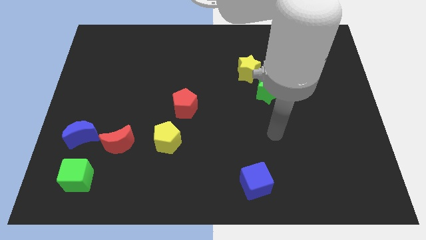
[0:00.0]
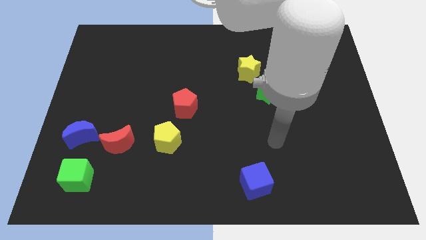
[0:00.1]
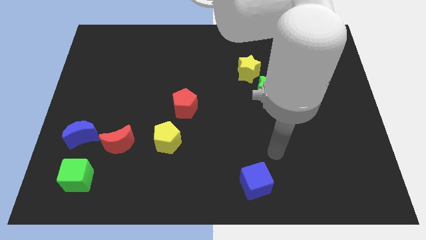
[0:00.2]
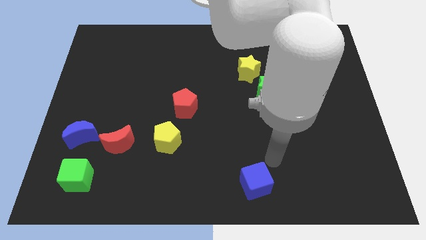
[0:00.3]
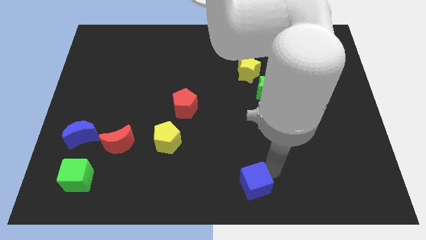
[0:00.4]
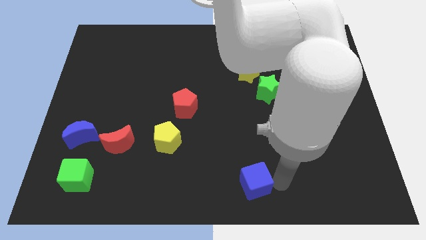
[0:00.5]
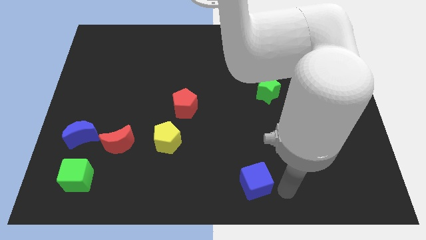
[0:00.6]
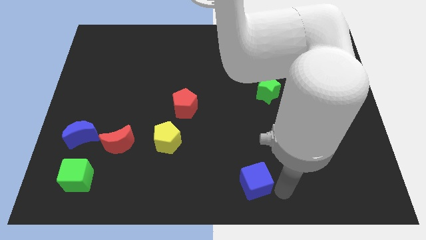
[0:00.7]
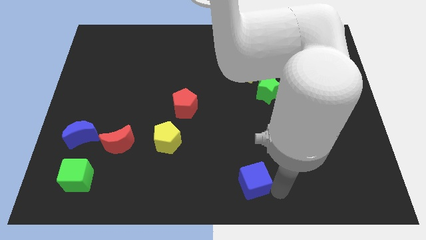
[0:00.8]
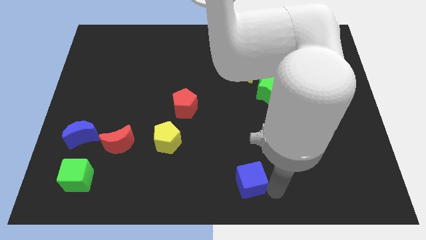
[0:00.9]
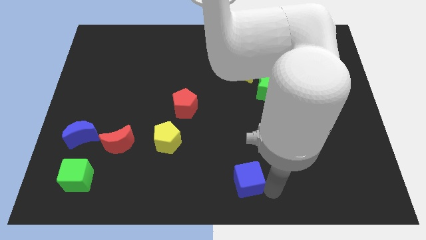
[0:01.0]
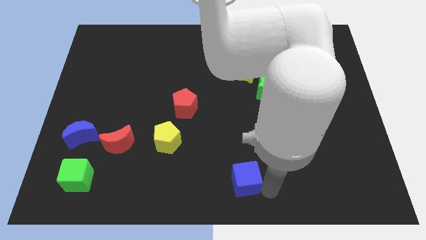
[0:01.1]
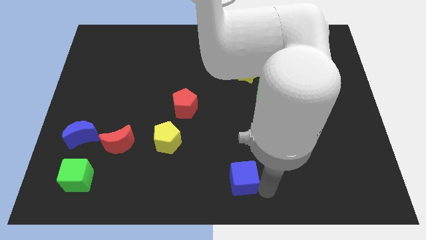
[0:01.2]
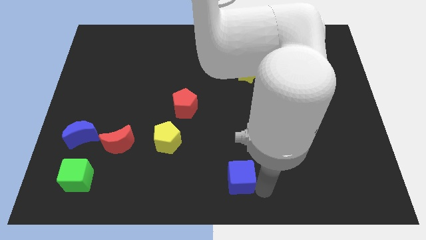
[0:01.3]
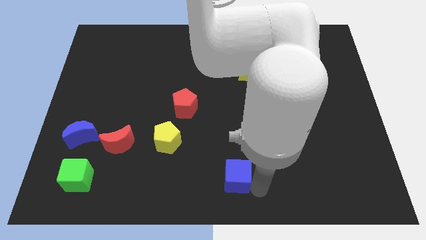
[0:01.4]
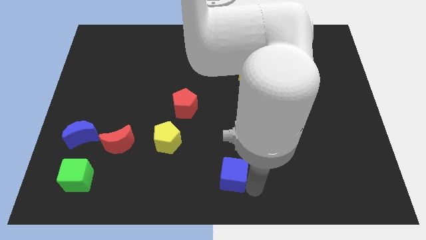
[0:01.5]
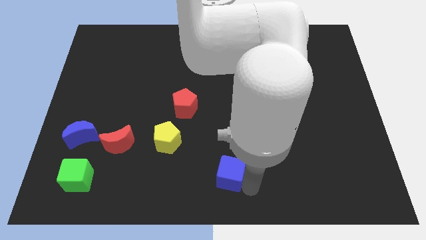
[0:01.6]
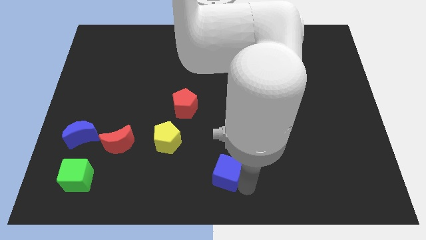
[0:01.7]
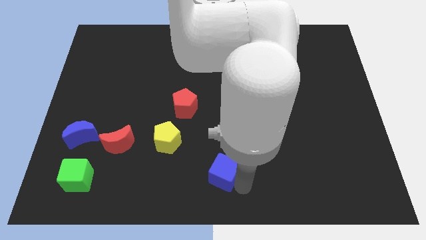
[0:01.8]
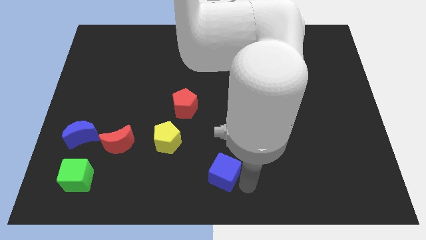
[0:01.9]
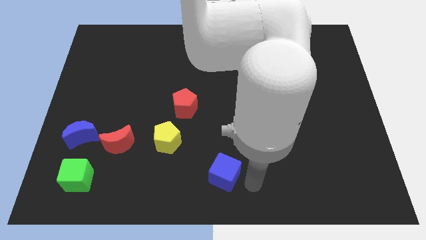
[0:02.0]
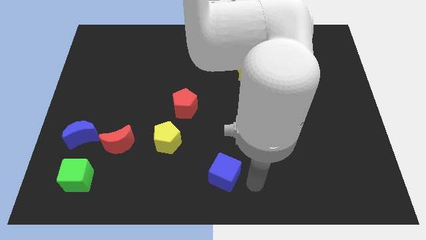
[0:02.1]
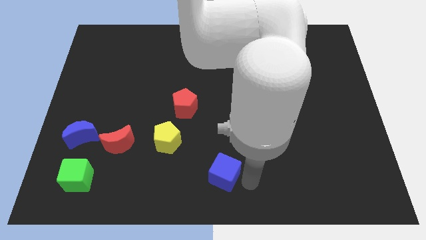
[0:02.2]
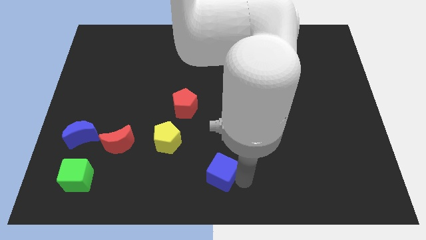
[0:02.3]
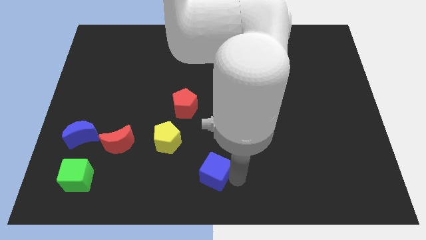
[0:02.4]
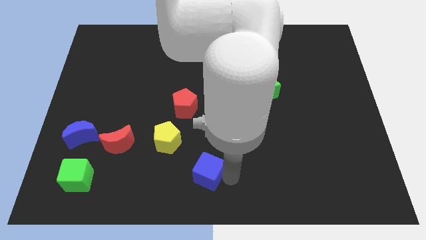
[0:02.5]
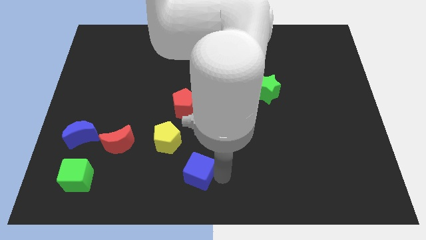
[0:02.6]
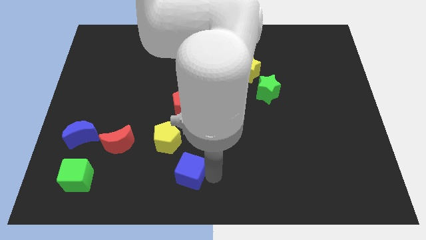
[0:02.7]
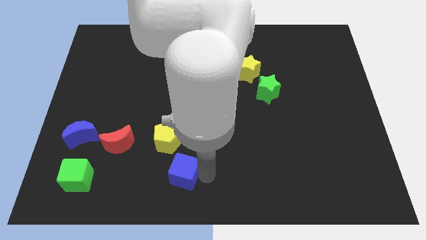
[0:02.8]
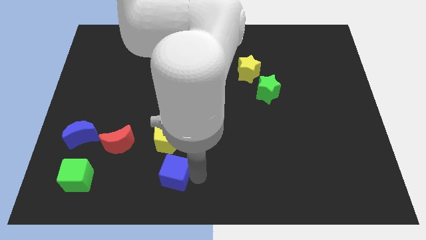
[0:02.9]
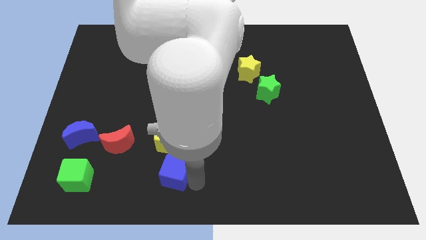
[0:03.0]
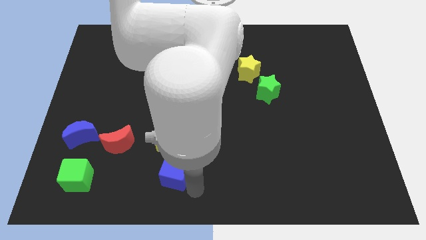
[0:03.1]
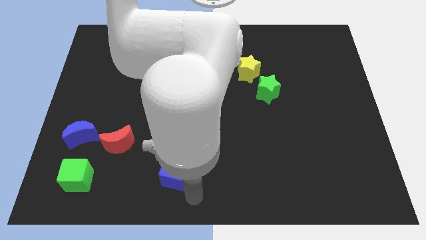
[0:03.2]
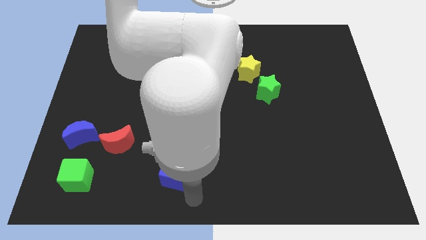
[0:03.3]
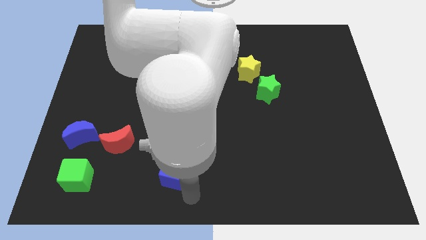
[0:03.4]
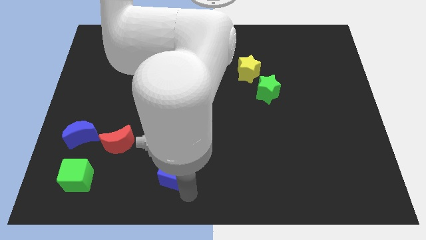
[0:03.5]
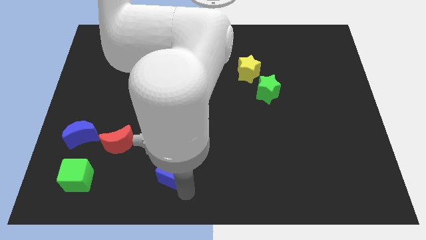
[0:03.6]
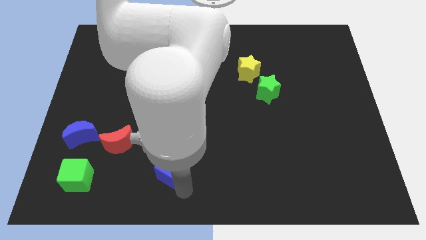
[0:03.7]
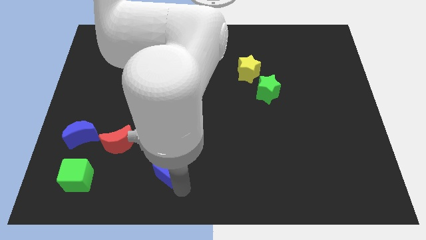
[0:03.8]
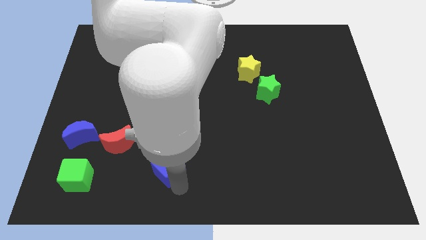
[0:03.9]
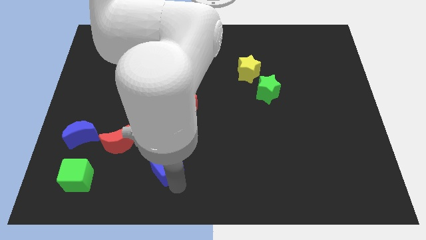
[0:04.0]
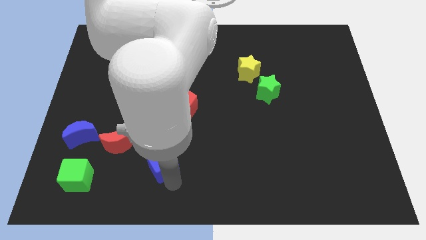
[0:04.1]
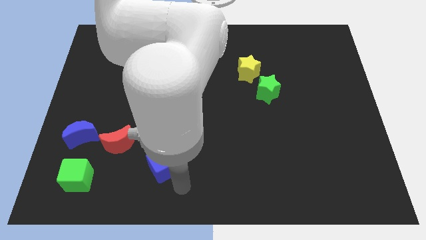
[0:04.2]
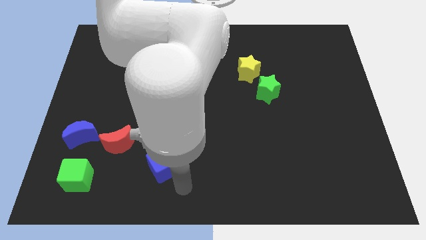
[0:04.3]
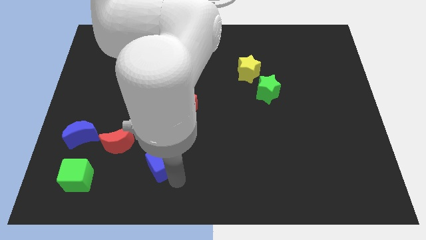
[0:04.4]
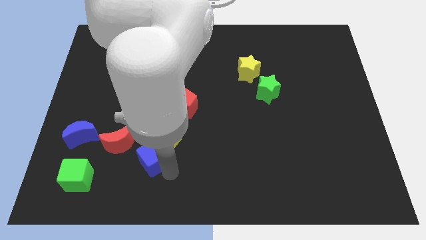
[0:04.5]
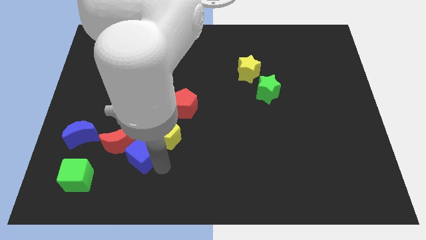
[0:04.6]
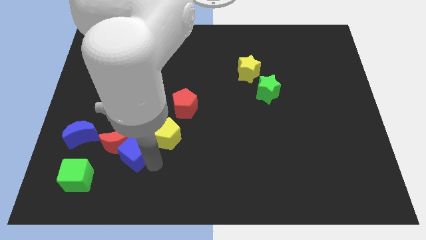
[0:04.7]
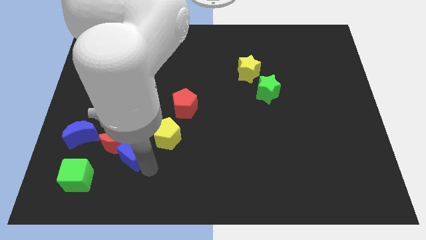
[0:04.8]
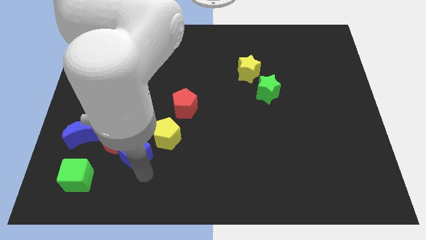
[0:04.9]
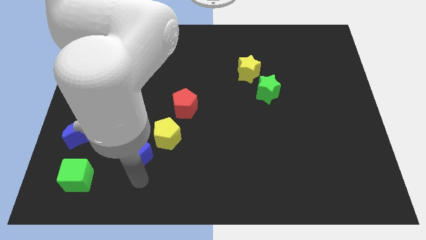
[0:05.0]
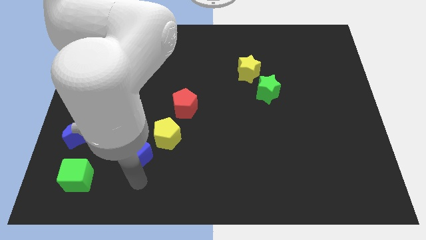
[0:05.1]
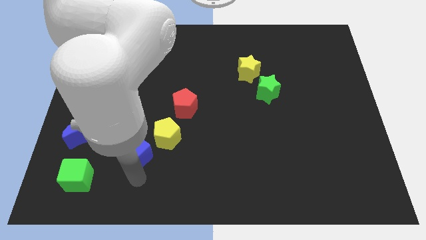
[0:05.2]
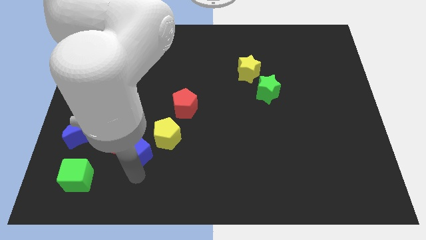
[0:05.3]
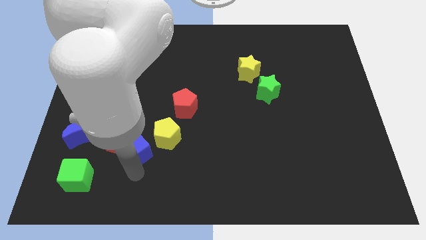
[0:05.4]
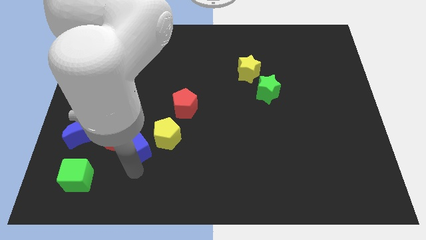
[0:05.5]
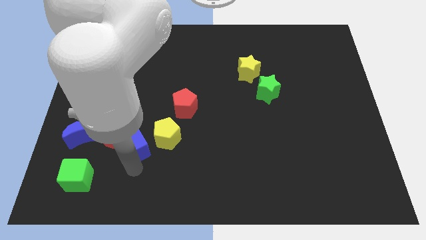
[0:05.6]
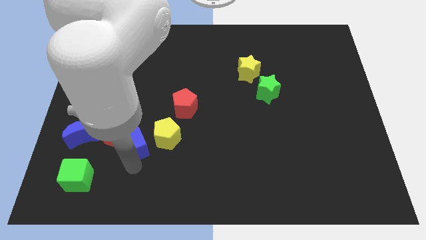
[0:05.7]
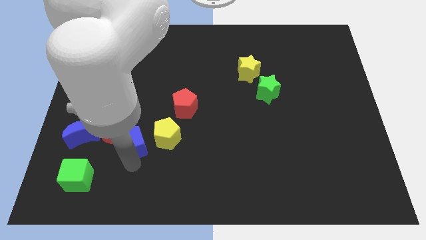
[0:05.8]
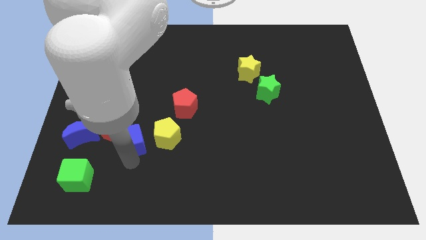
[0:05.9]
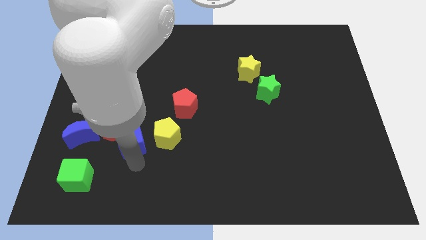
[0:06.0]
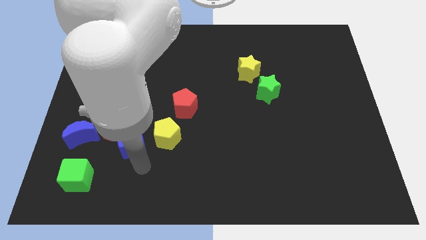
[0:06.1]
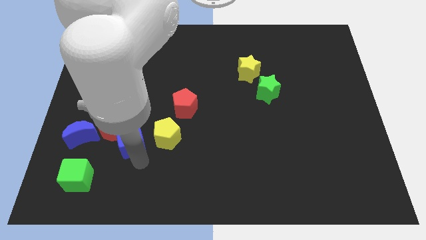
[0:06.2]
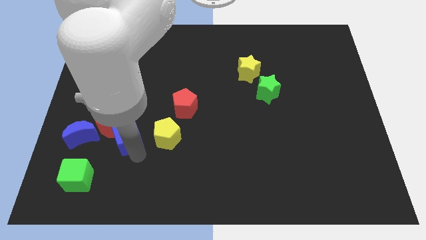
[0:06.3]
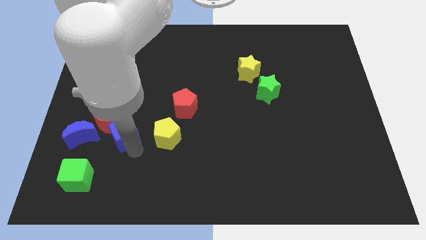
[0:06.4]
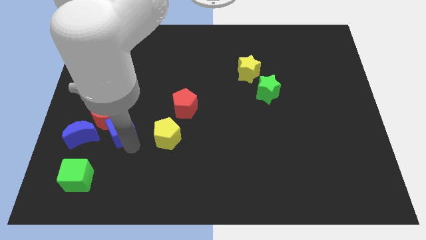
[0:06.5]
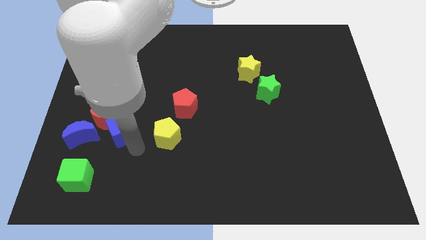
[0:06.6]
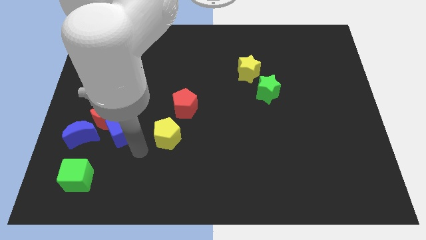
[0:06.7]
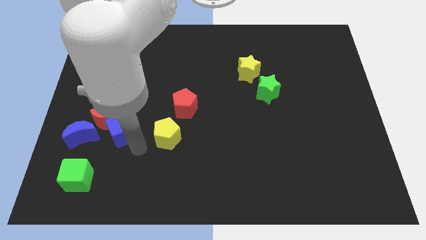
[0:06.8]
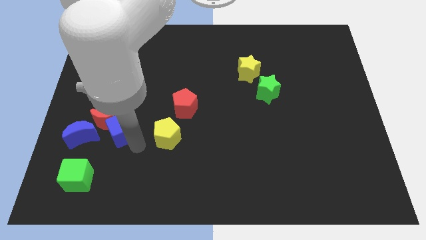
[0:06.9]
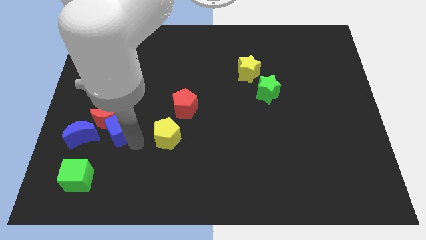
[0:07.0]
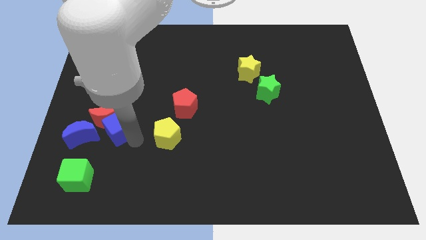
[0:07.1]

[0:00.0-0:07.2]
put the blue cube to the top right side of the blue moon

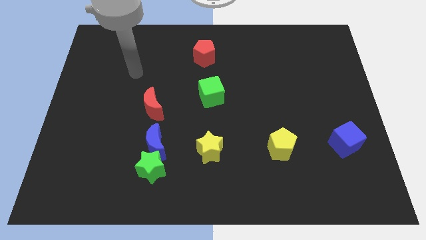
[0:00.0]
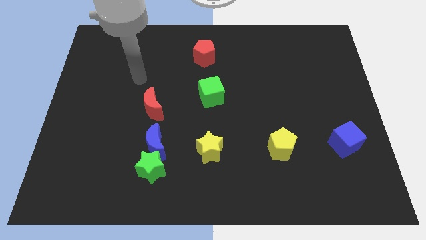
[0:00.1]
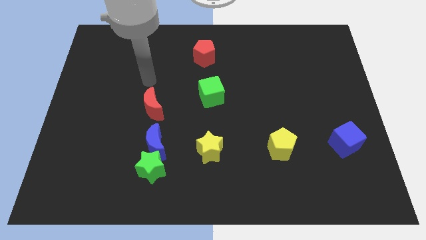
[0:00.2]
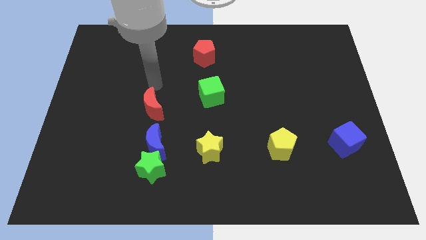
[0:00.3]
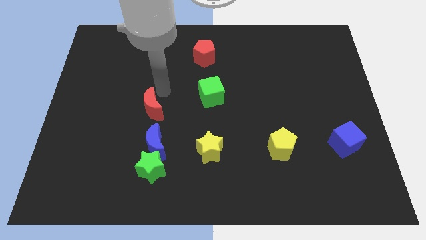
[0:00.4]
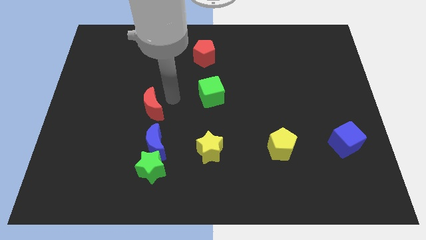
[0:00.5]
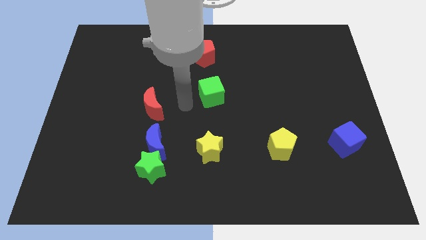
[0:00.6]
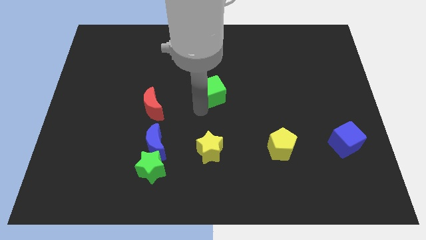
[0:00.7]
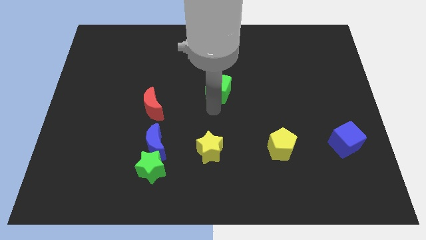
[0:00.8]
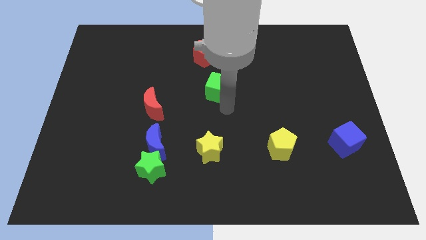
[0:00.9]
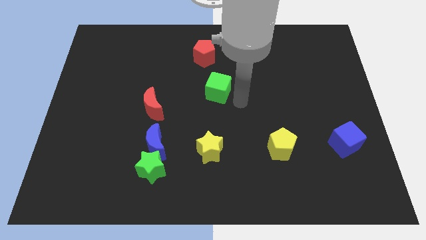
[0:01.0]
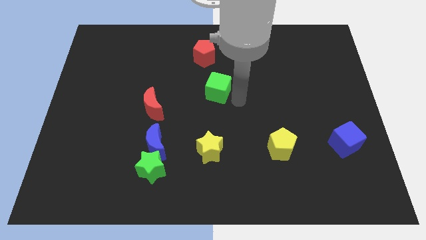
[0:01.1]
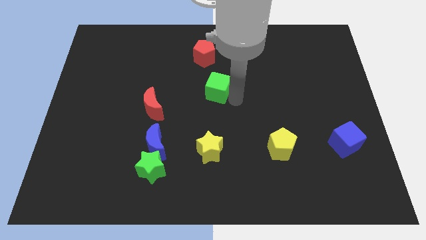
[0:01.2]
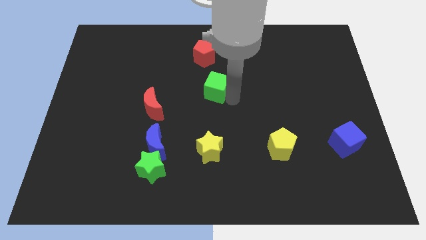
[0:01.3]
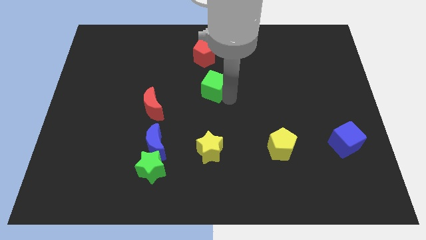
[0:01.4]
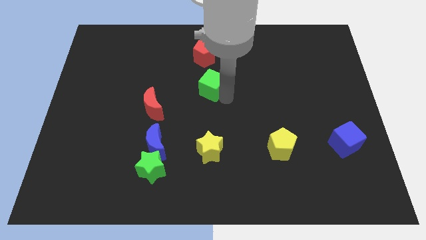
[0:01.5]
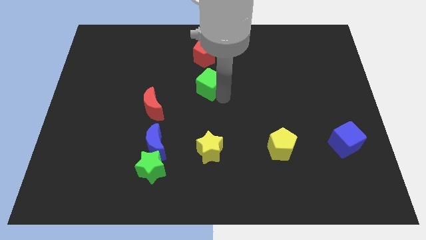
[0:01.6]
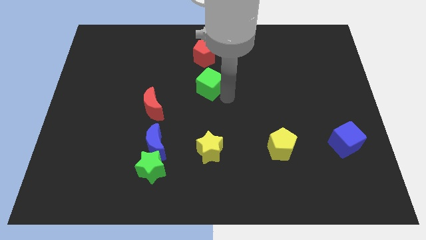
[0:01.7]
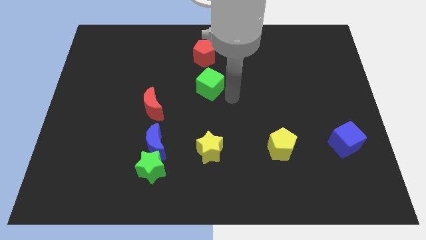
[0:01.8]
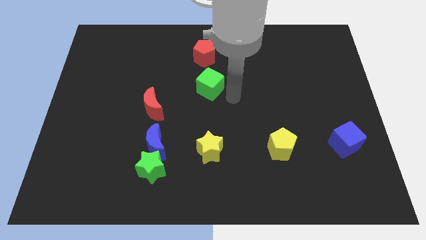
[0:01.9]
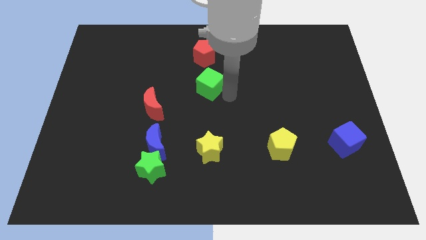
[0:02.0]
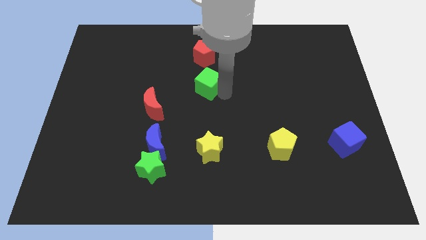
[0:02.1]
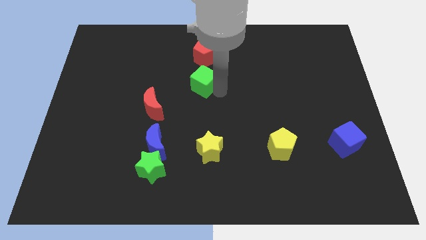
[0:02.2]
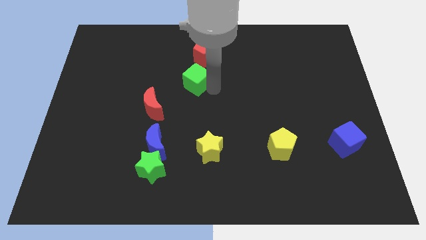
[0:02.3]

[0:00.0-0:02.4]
move the green cube to the bottom left side of the red pentagon
